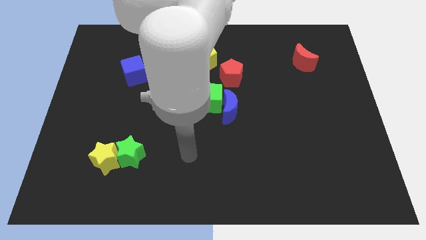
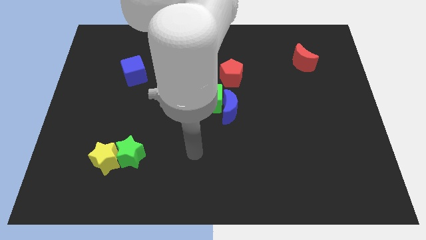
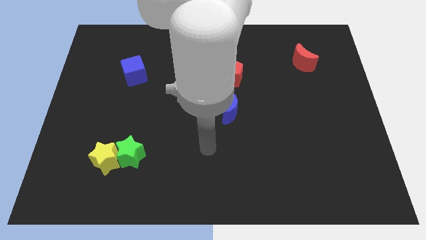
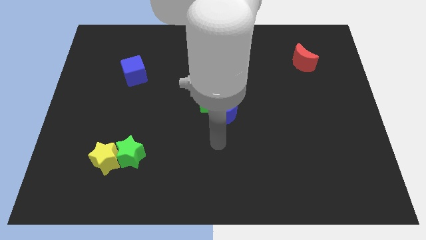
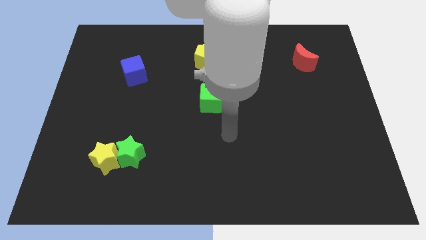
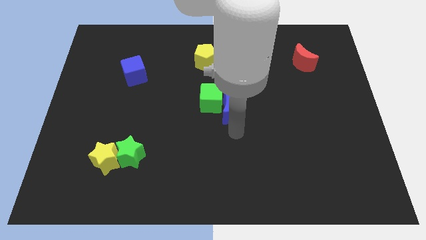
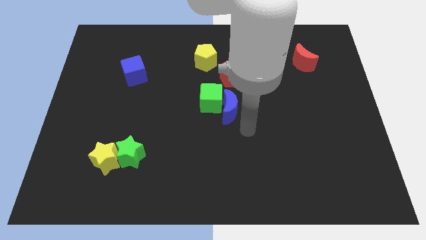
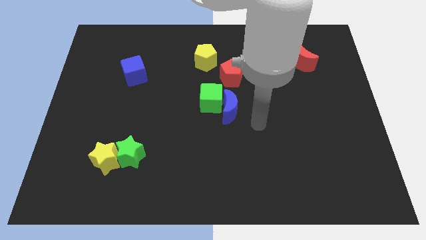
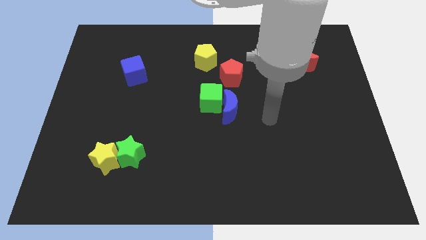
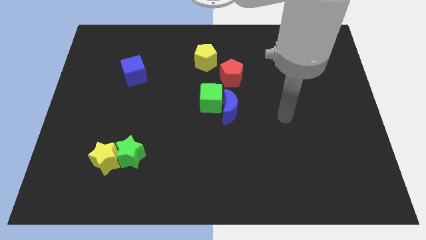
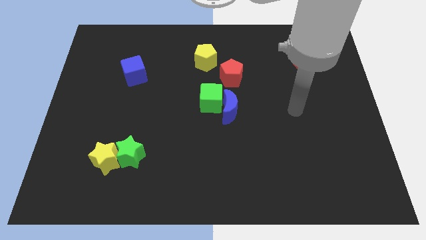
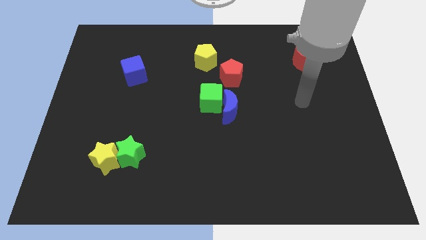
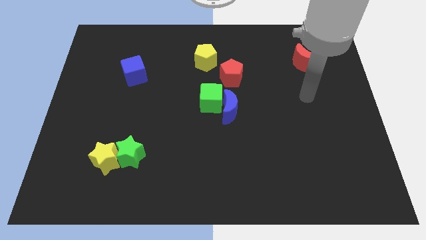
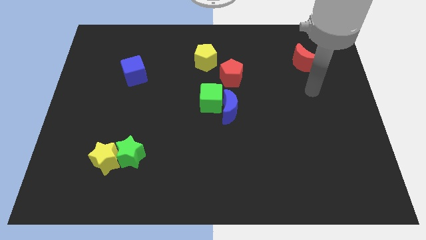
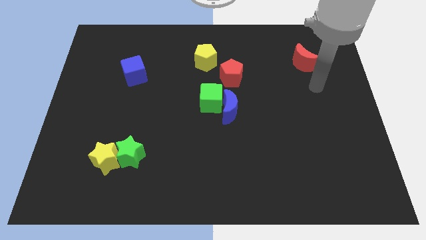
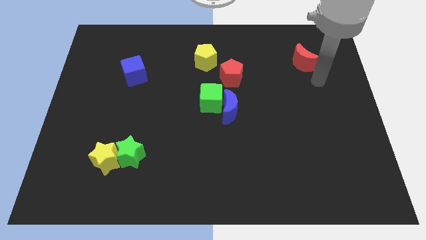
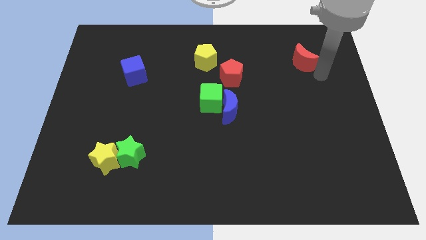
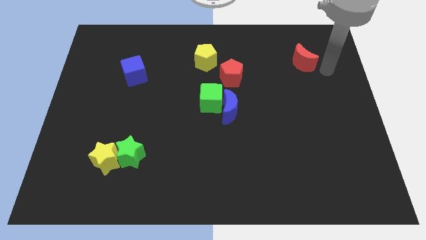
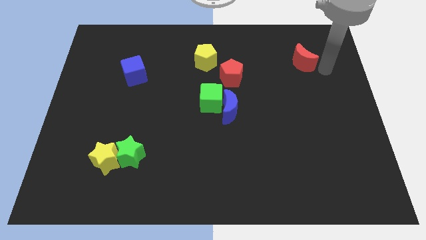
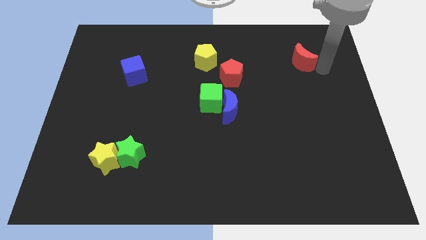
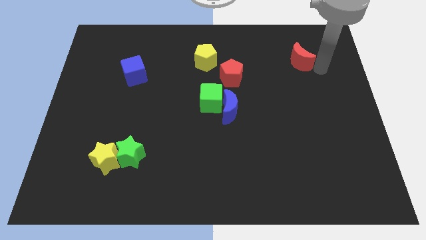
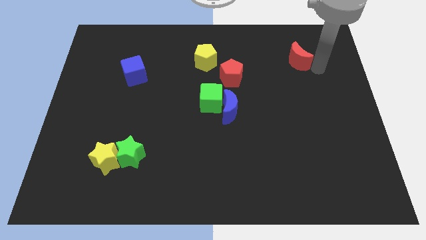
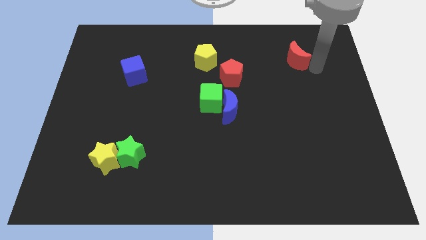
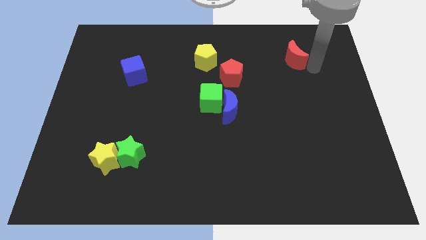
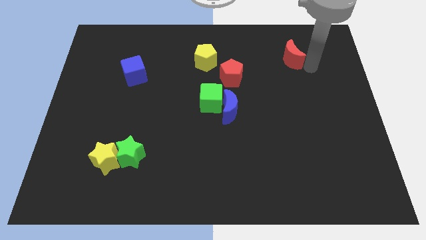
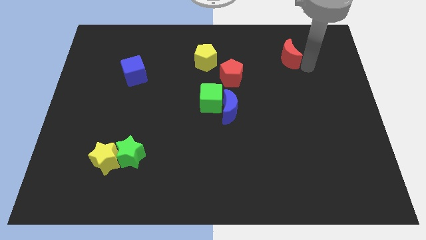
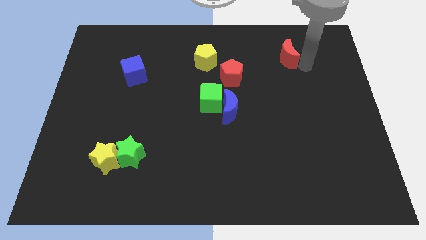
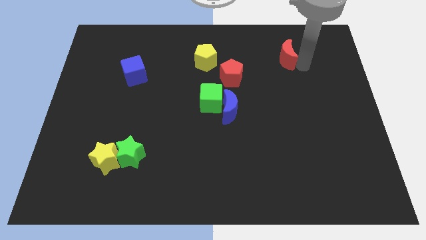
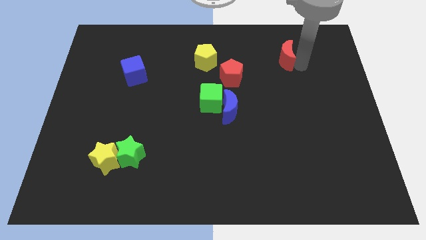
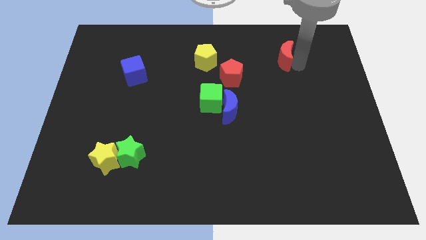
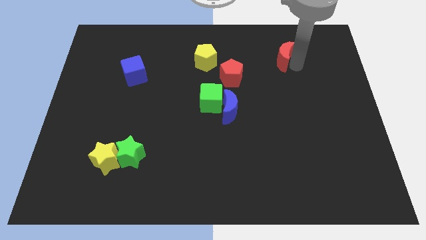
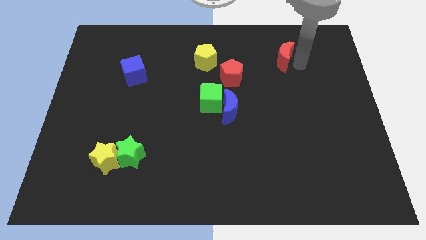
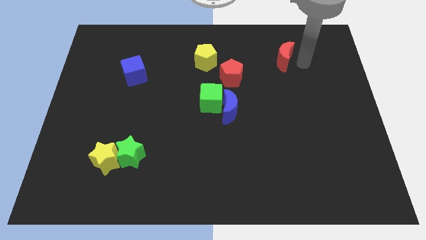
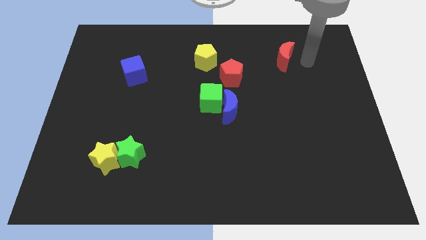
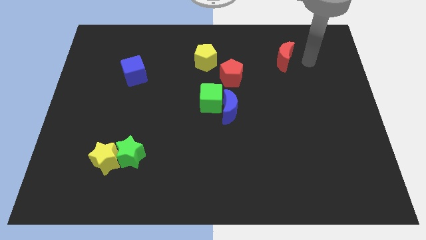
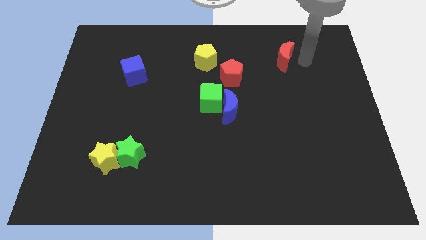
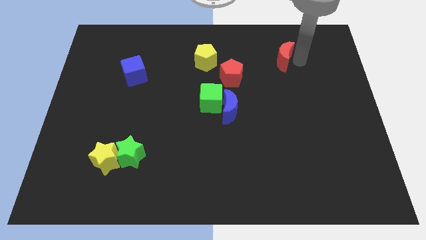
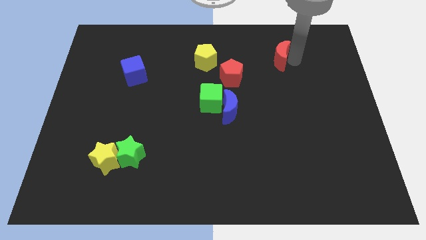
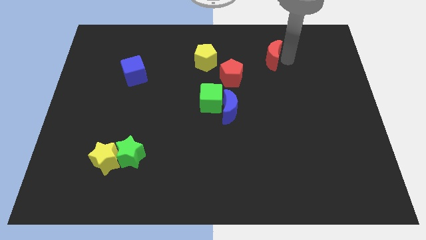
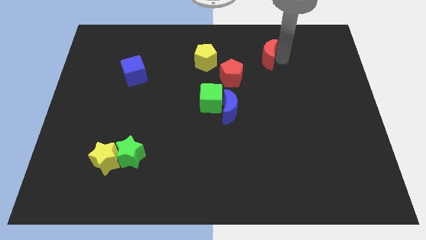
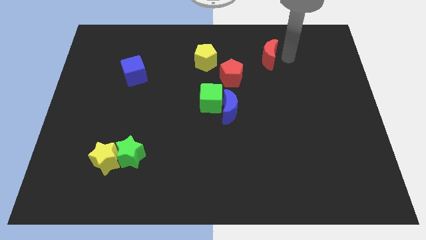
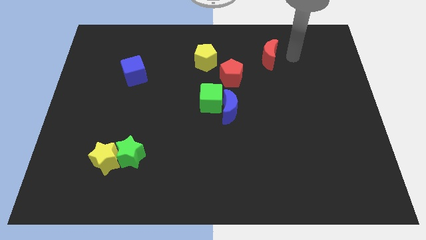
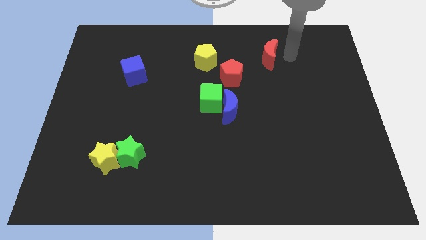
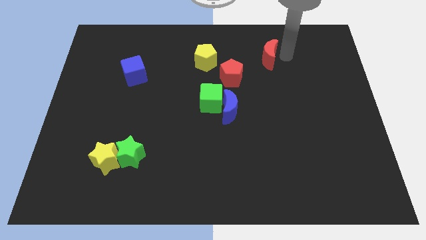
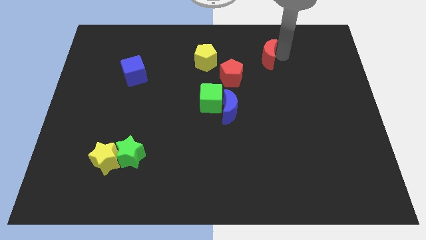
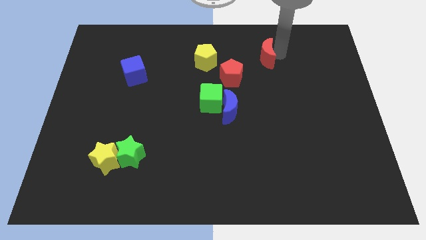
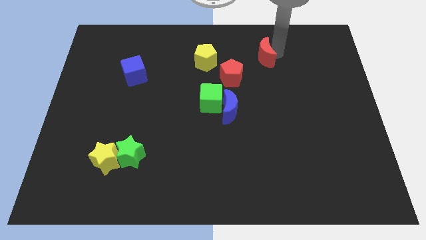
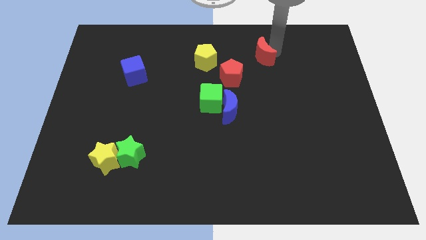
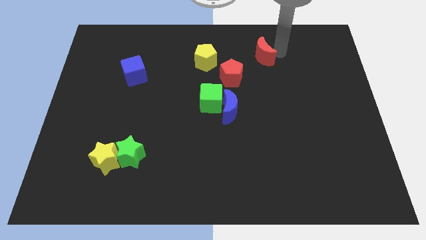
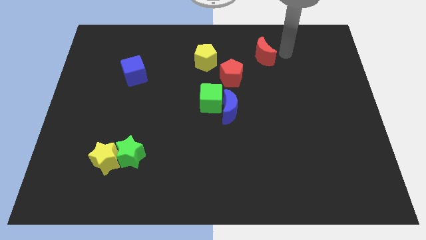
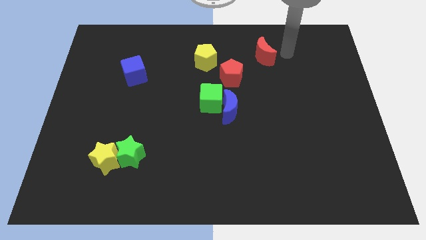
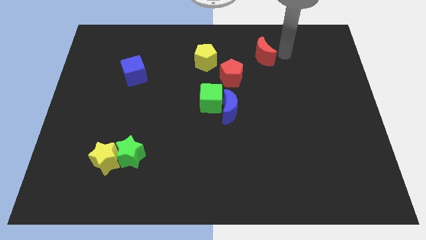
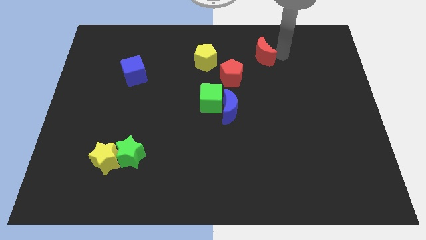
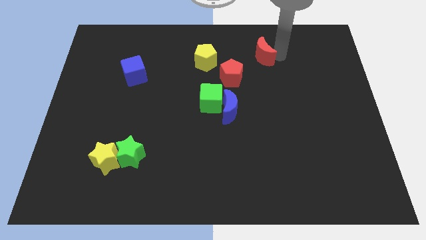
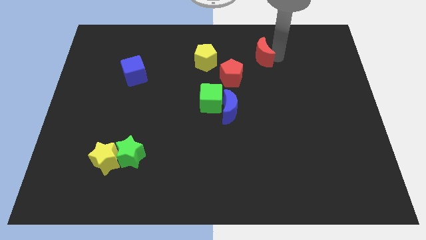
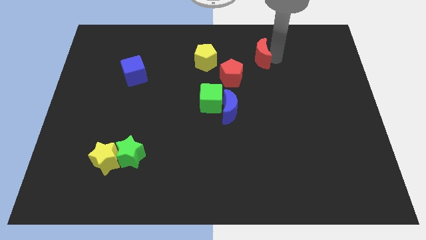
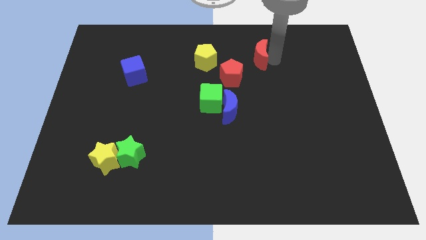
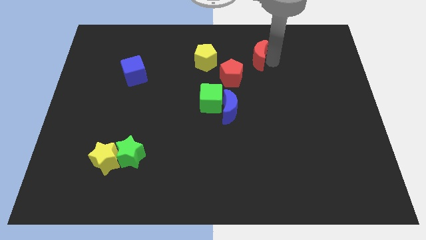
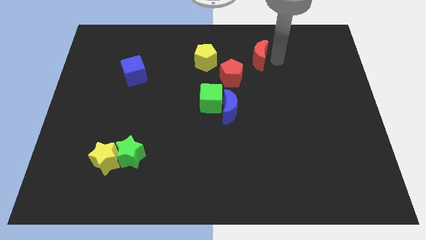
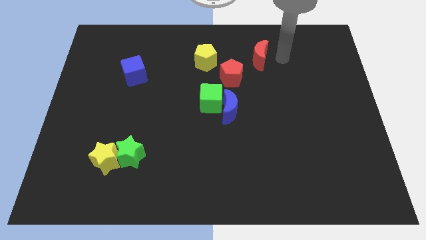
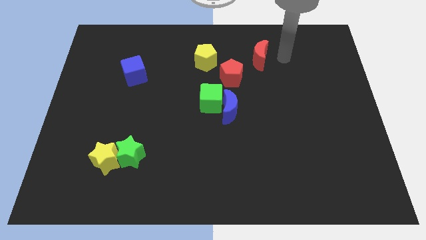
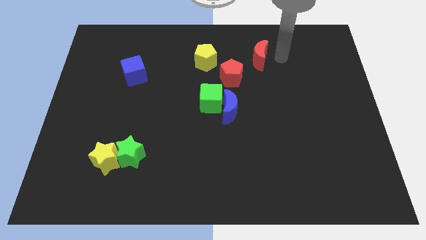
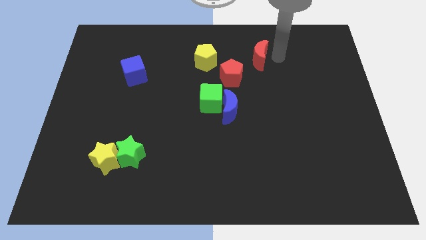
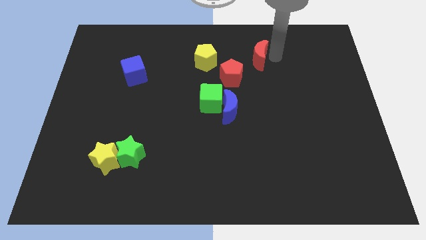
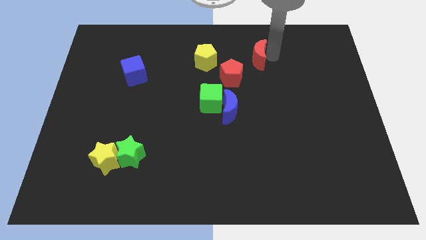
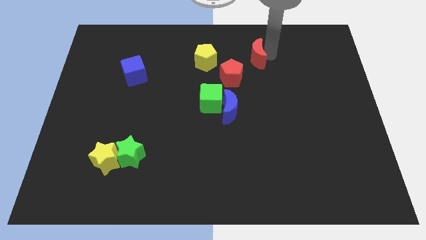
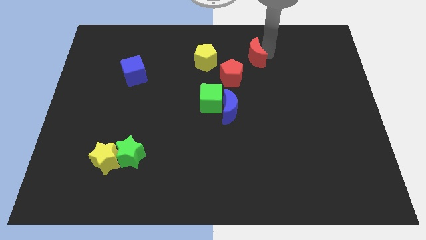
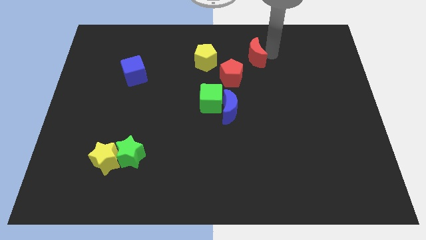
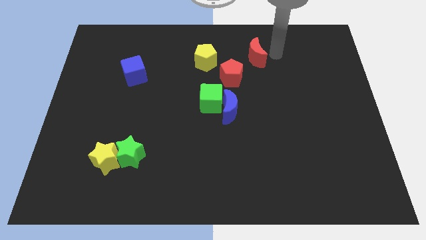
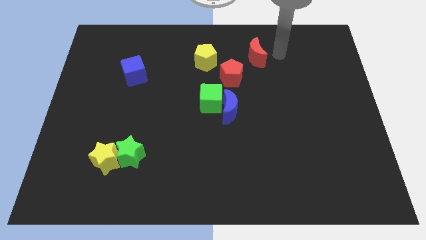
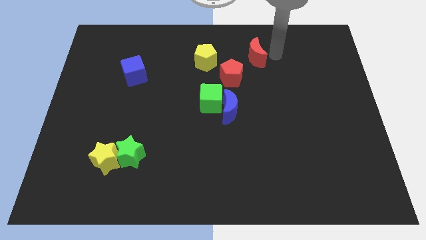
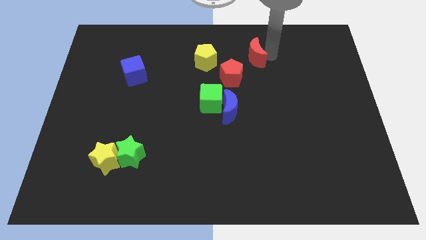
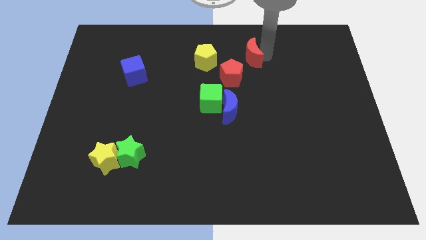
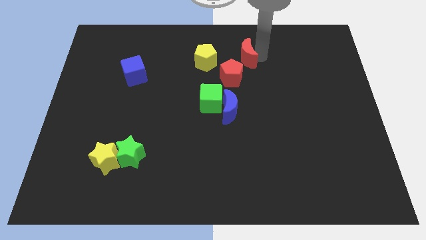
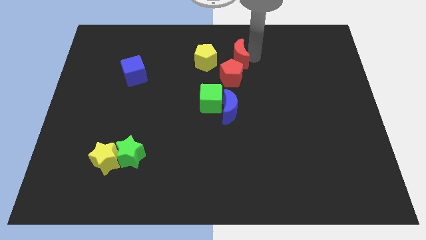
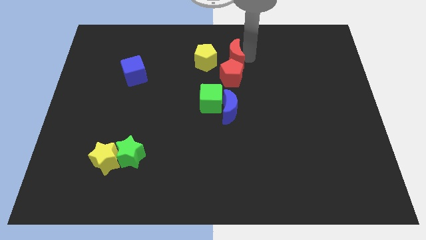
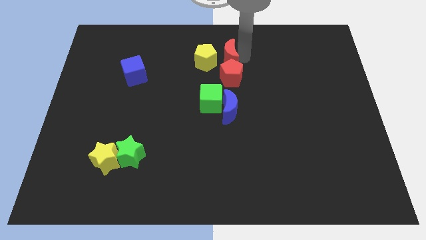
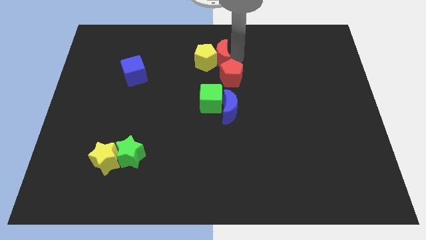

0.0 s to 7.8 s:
put the red moon towards the yellow pentagon

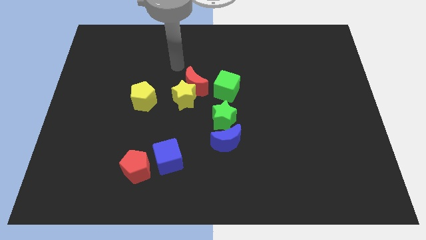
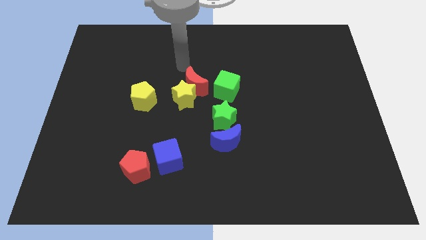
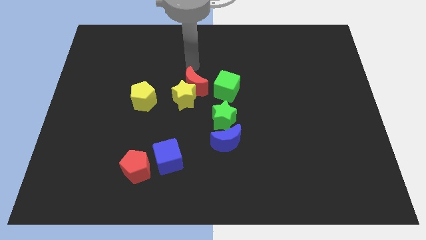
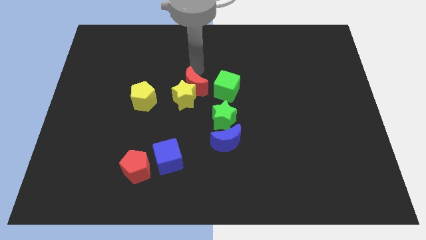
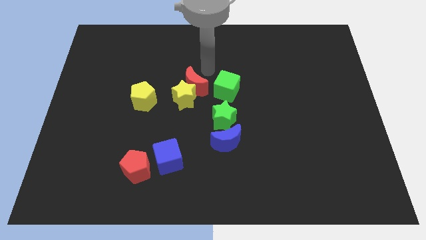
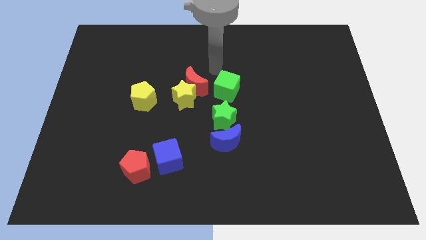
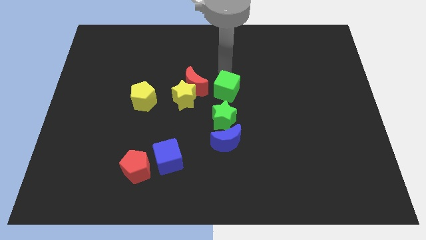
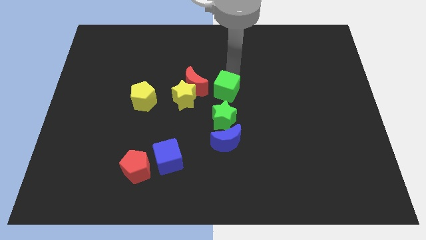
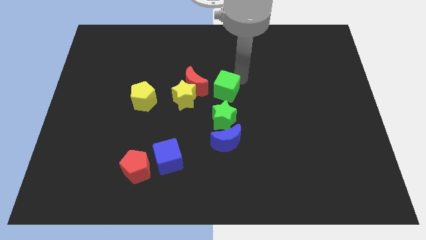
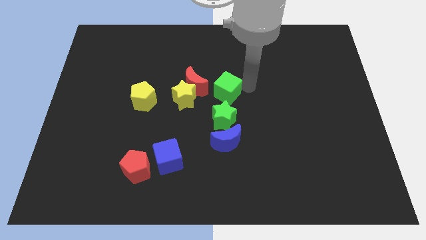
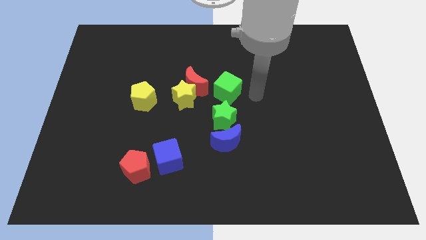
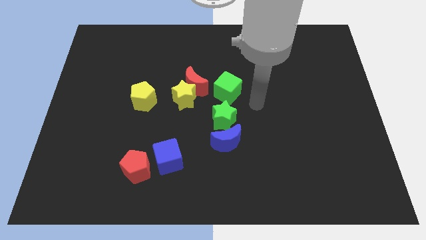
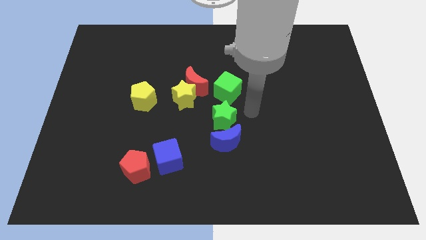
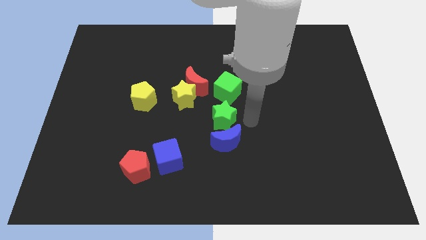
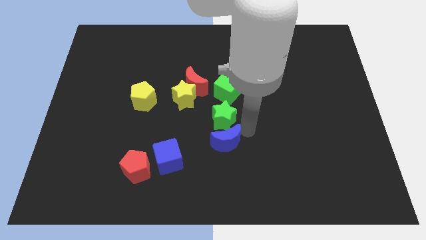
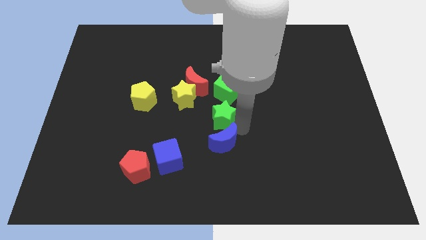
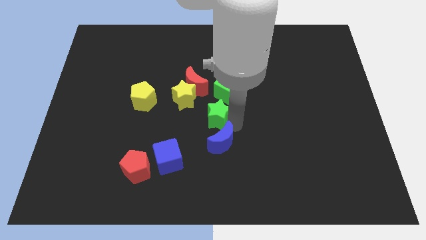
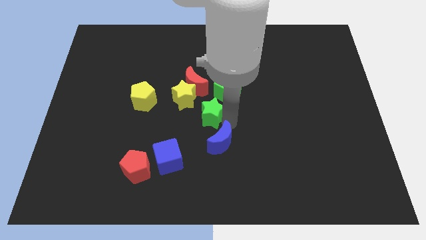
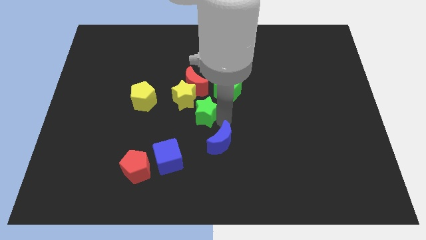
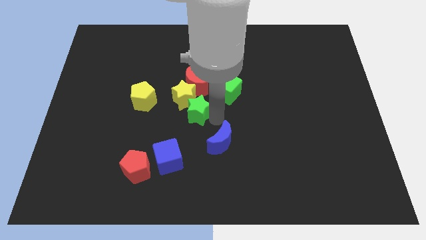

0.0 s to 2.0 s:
put the green star towards the yellow star
